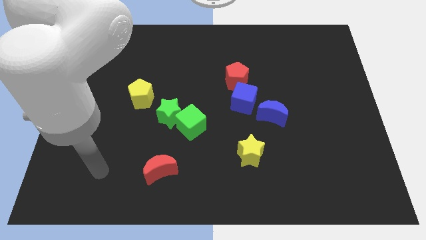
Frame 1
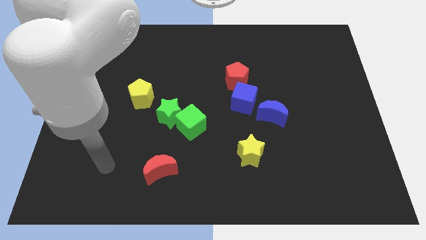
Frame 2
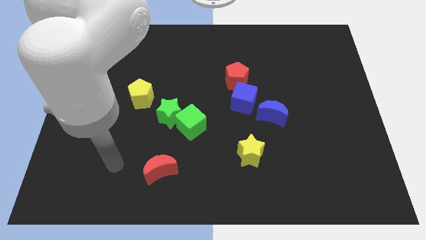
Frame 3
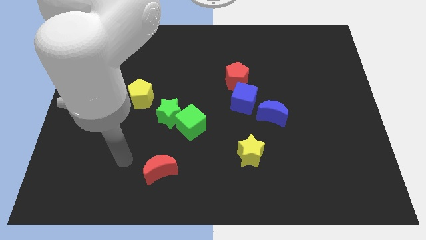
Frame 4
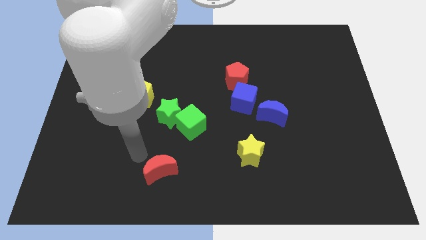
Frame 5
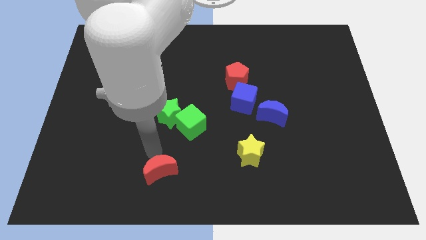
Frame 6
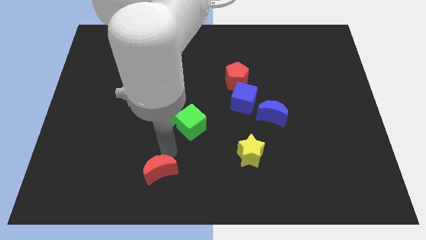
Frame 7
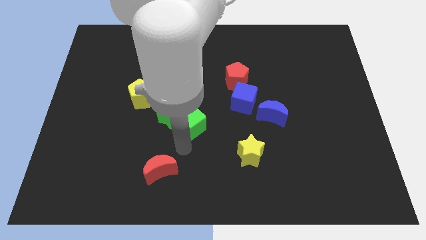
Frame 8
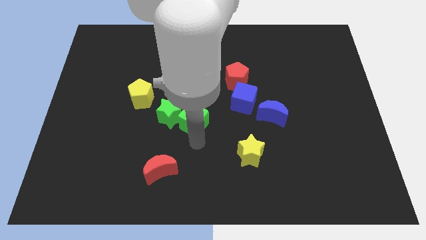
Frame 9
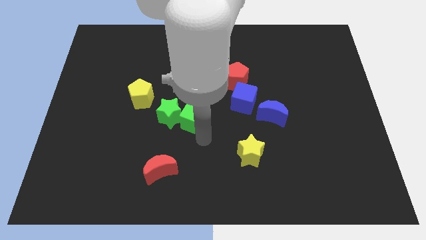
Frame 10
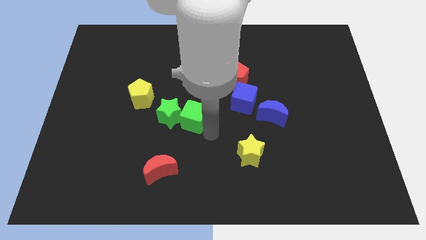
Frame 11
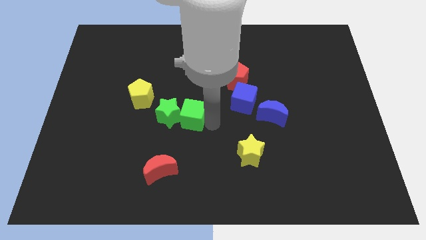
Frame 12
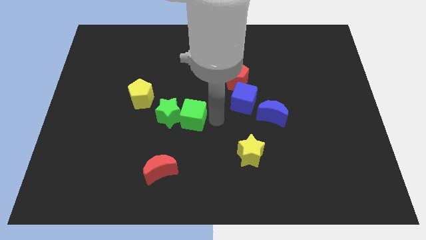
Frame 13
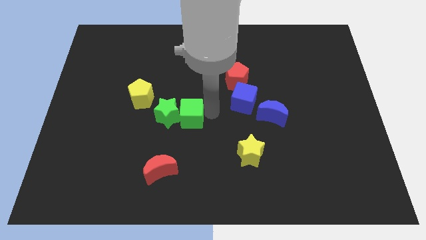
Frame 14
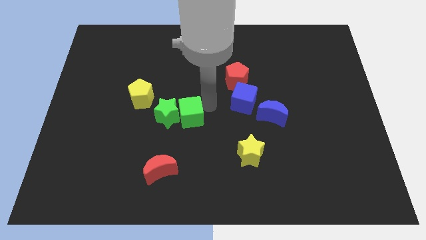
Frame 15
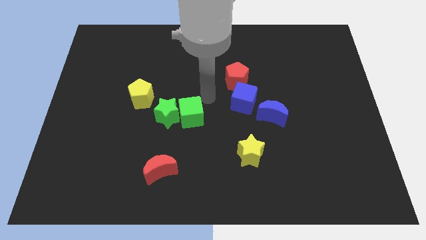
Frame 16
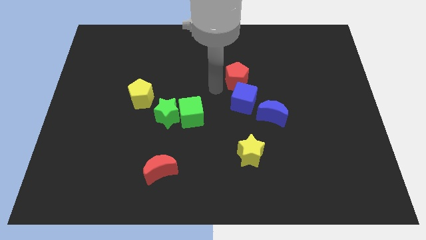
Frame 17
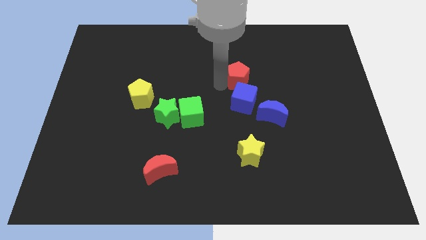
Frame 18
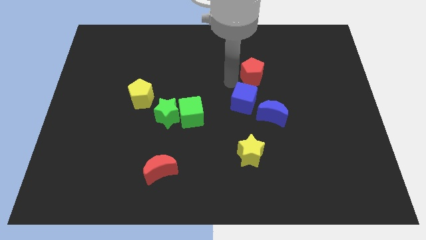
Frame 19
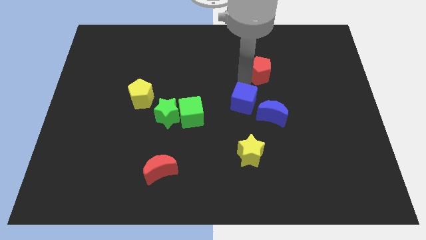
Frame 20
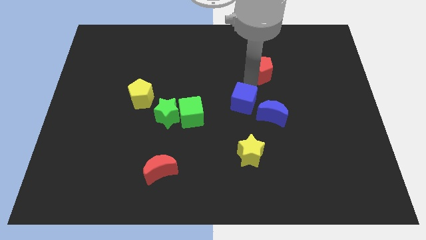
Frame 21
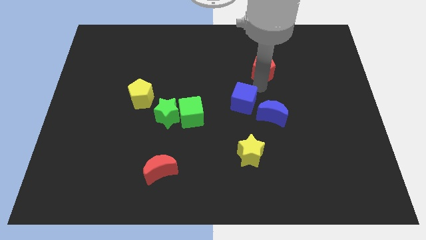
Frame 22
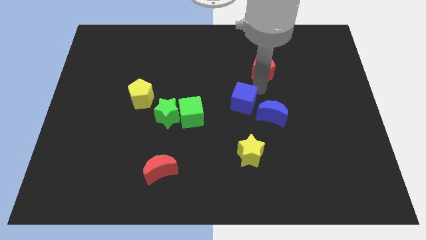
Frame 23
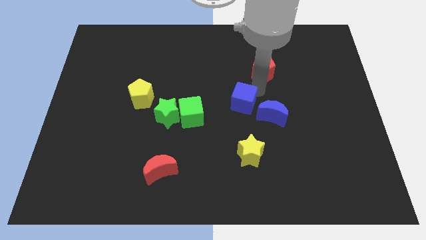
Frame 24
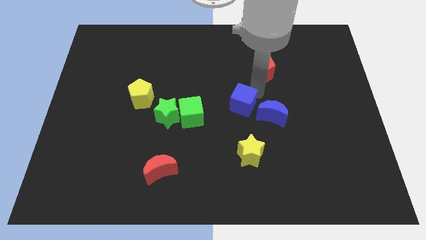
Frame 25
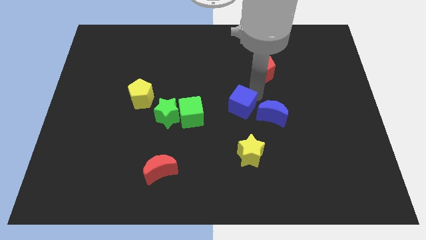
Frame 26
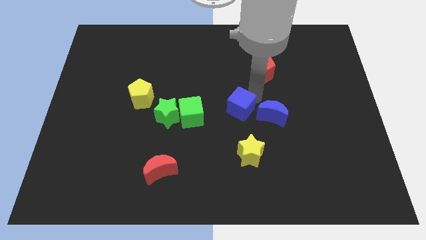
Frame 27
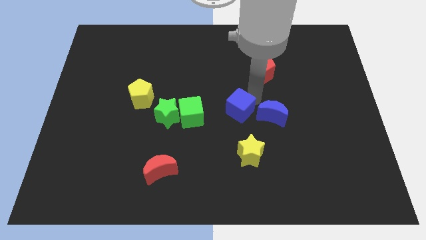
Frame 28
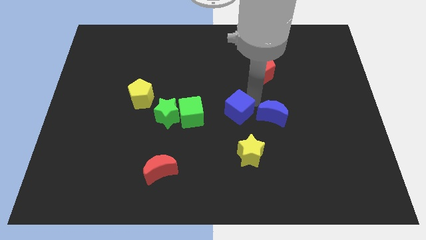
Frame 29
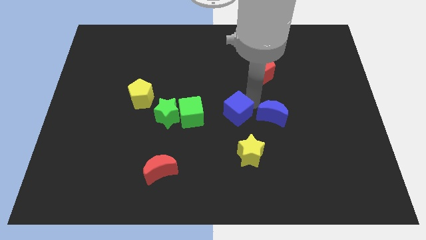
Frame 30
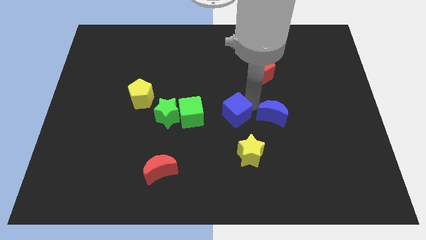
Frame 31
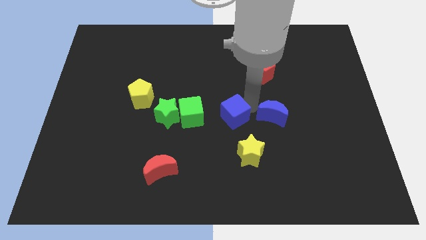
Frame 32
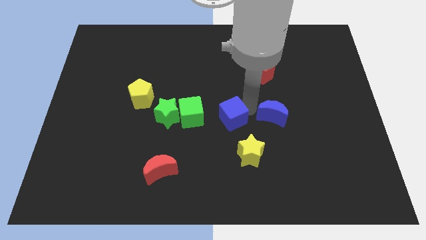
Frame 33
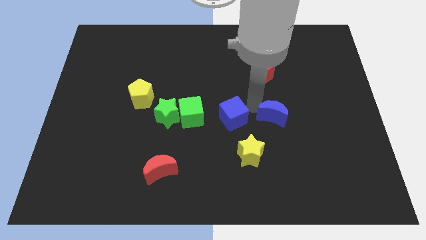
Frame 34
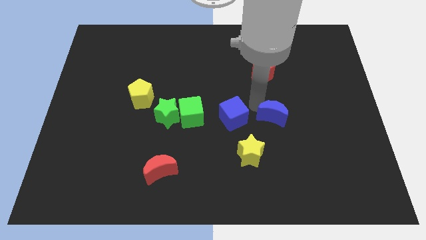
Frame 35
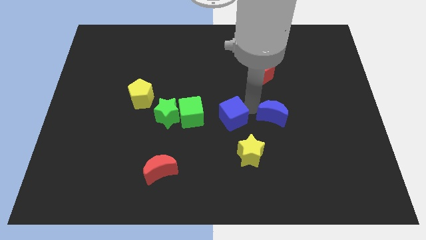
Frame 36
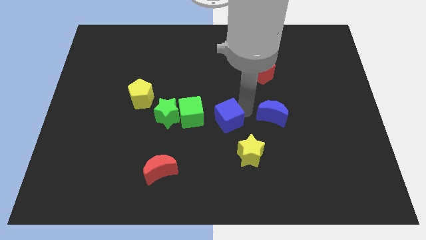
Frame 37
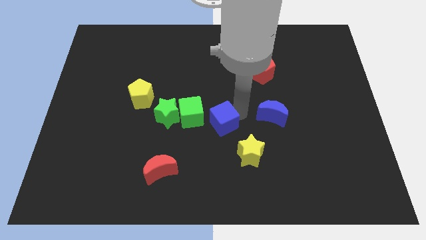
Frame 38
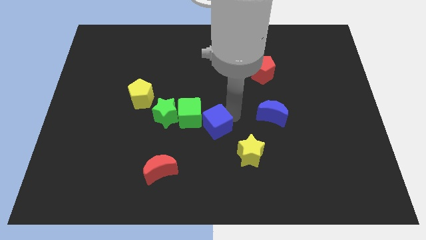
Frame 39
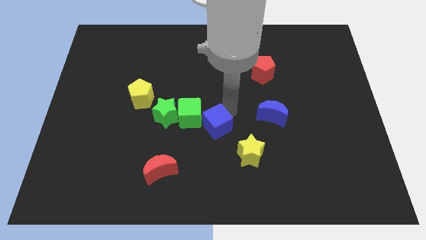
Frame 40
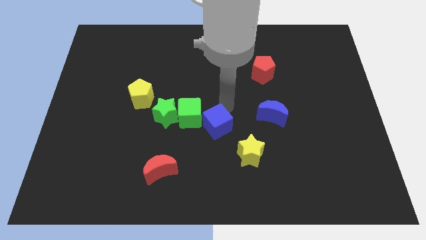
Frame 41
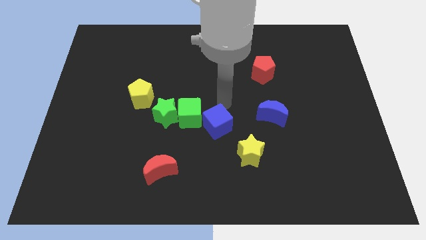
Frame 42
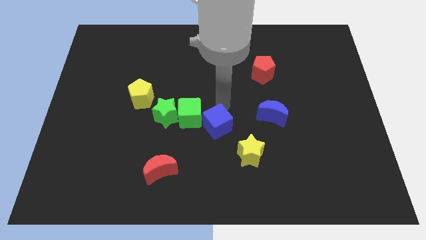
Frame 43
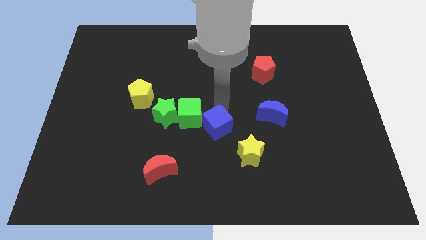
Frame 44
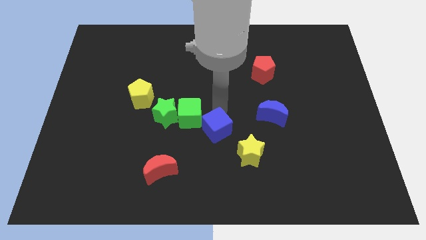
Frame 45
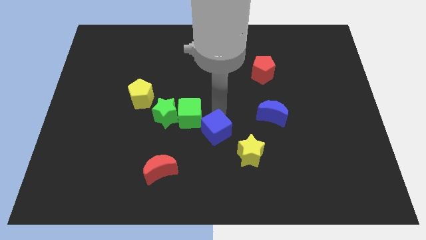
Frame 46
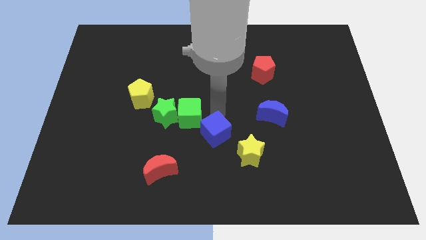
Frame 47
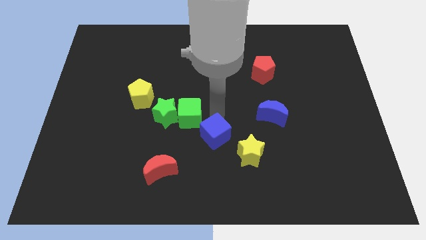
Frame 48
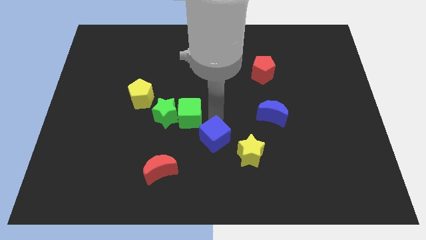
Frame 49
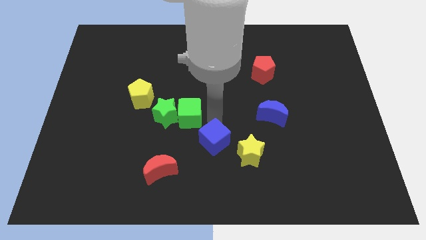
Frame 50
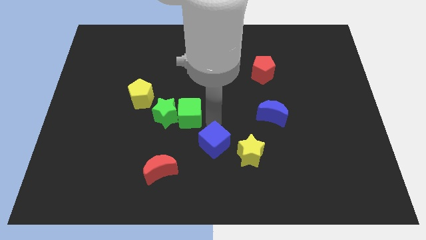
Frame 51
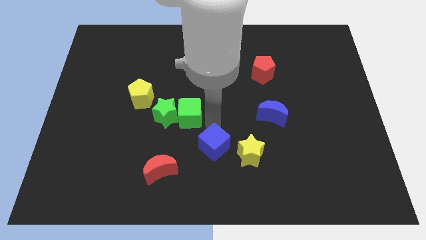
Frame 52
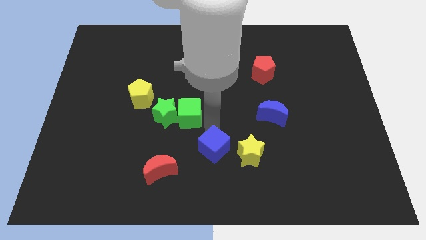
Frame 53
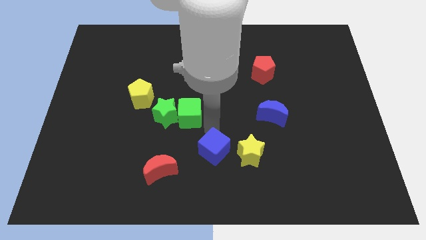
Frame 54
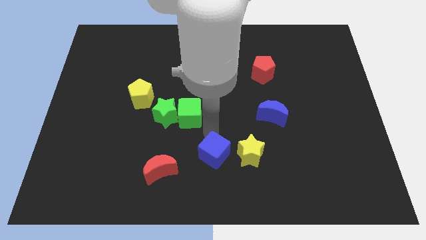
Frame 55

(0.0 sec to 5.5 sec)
slide the blue cube to the bottom

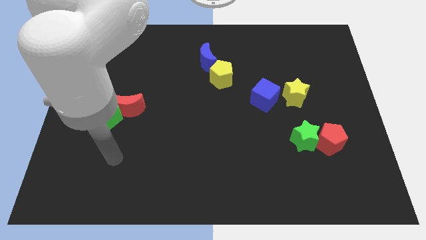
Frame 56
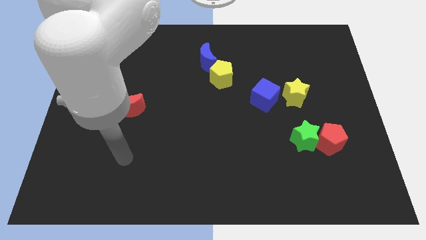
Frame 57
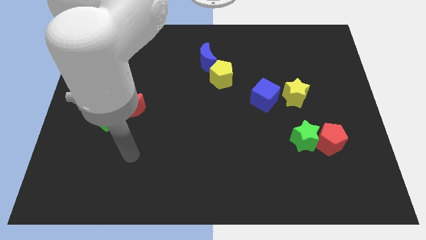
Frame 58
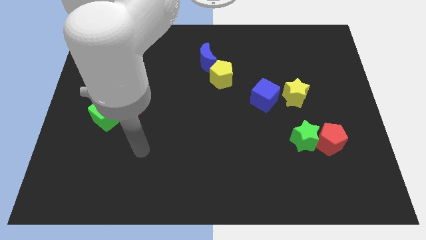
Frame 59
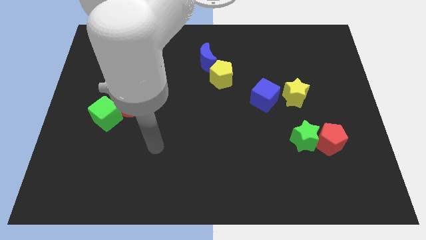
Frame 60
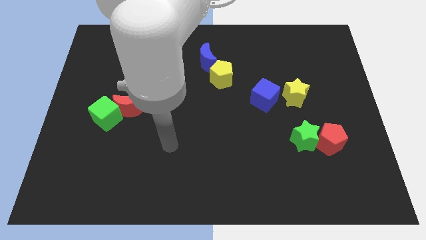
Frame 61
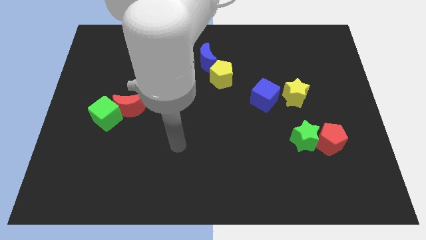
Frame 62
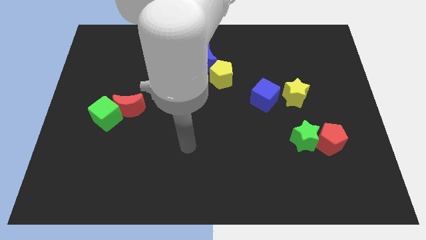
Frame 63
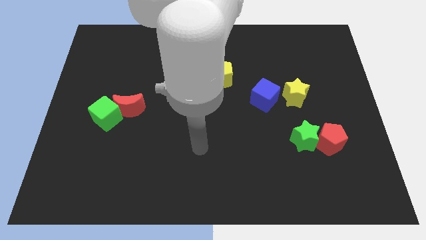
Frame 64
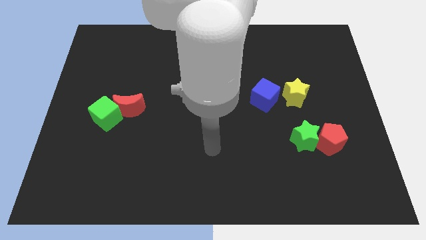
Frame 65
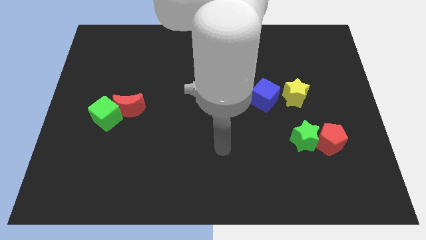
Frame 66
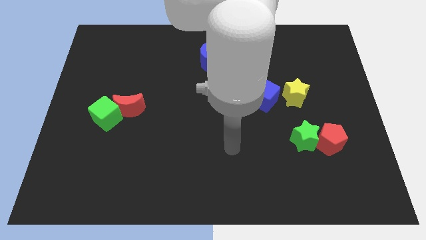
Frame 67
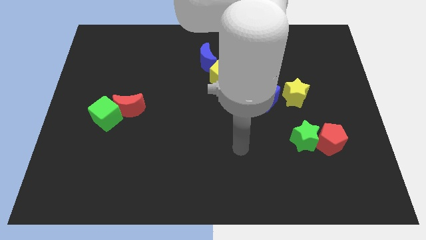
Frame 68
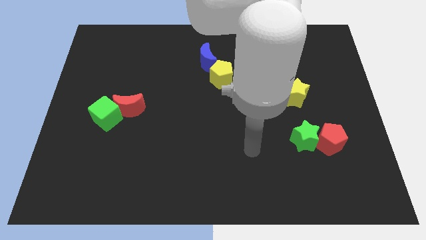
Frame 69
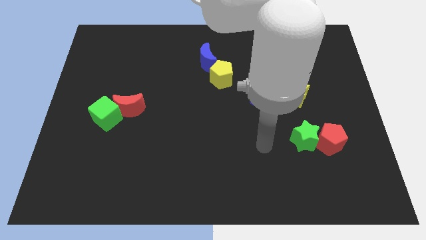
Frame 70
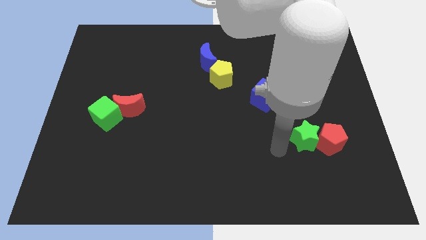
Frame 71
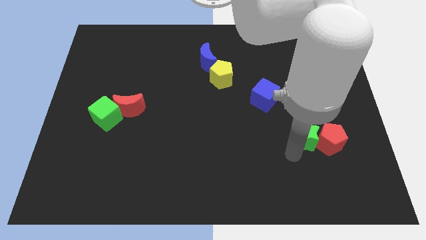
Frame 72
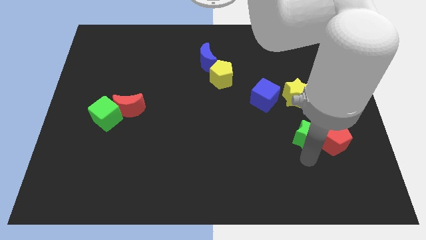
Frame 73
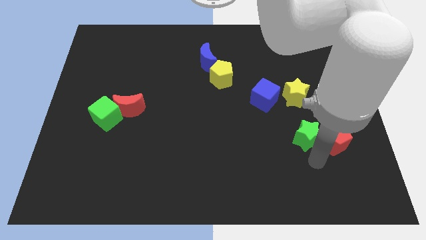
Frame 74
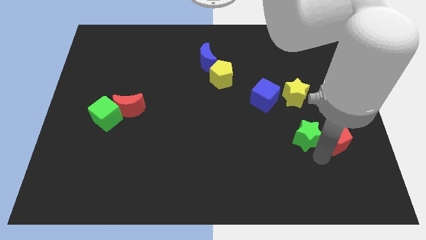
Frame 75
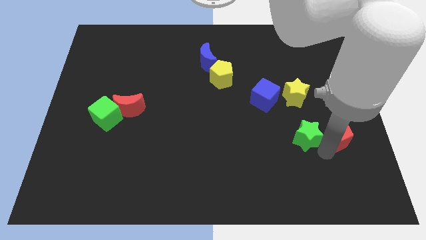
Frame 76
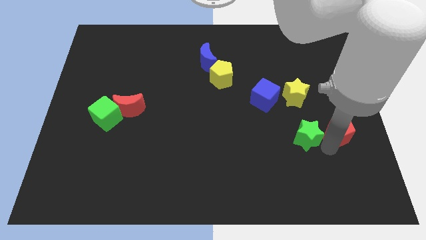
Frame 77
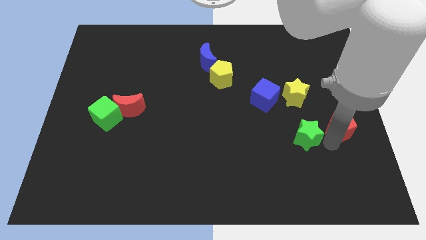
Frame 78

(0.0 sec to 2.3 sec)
slide the red pentagon to the right side
